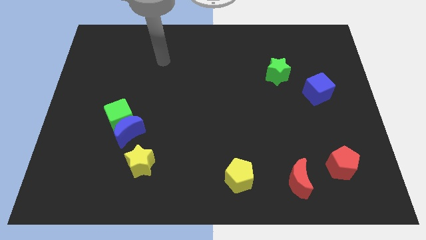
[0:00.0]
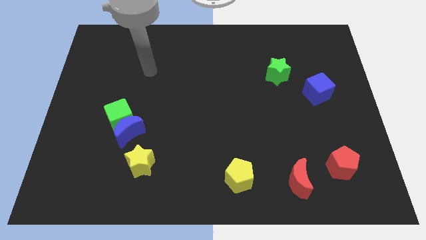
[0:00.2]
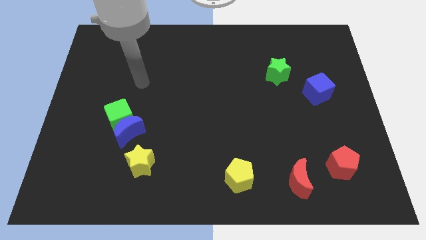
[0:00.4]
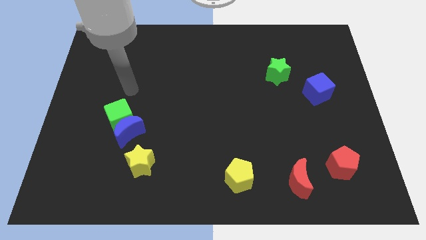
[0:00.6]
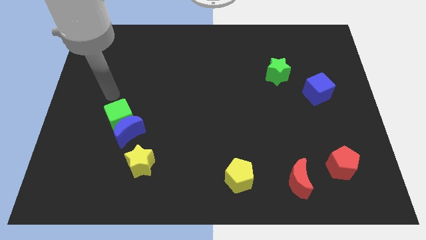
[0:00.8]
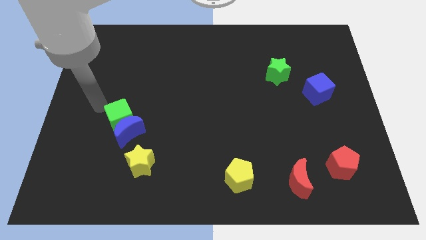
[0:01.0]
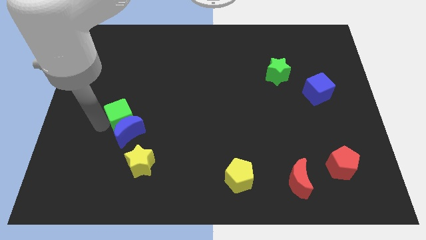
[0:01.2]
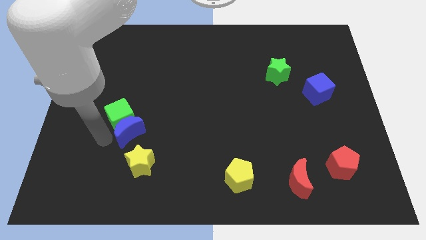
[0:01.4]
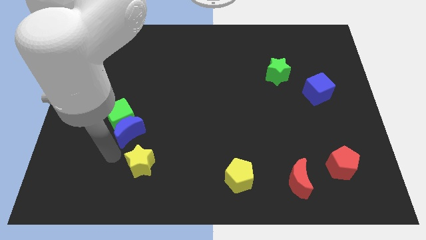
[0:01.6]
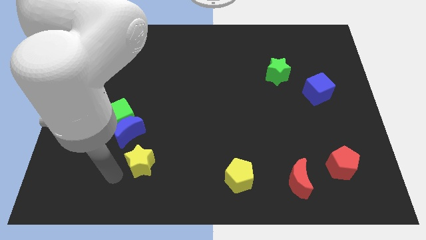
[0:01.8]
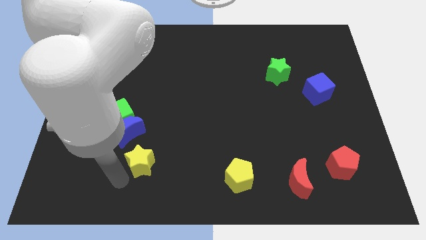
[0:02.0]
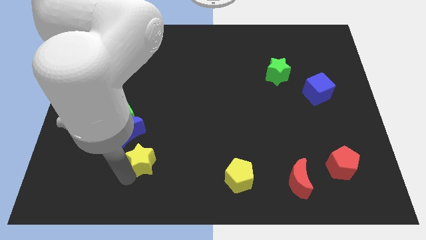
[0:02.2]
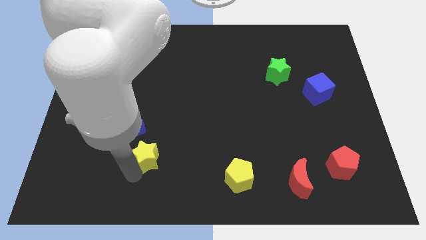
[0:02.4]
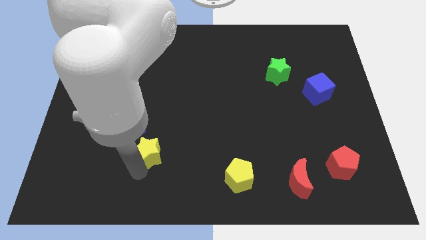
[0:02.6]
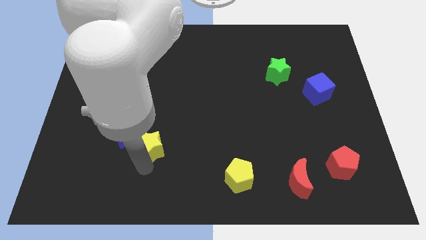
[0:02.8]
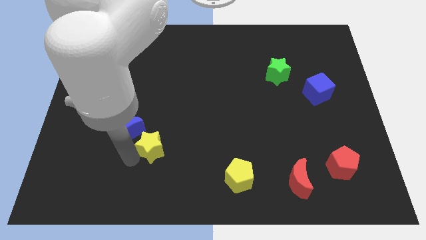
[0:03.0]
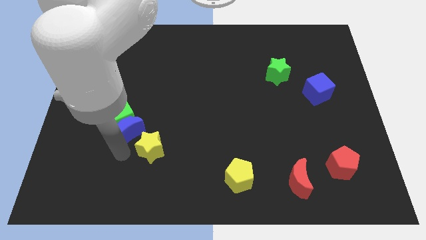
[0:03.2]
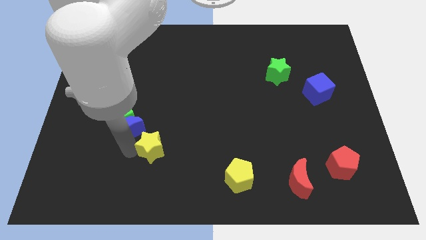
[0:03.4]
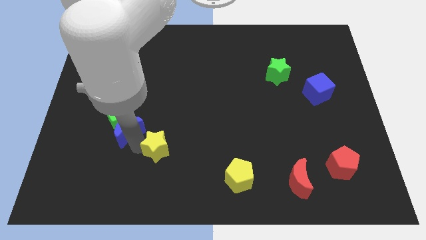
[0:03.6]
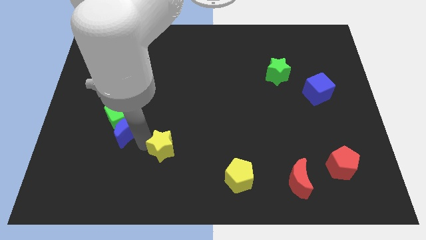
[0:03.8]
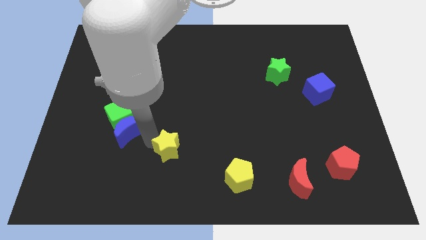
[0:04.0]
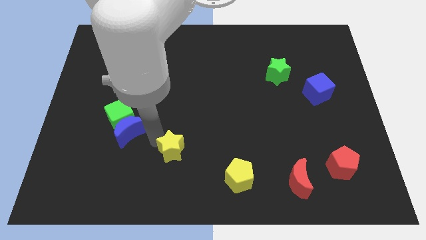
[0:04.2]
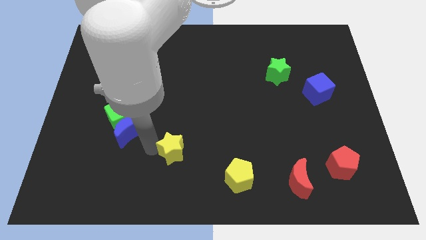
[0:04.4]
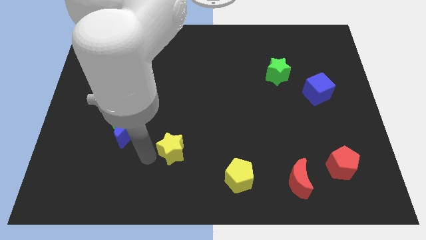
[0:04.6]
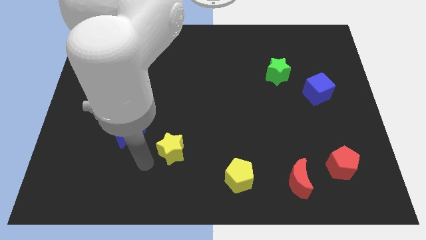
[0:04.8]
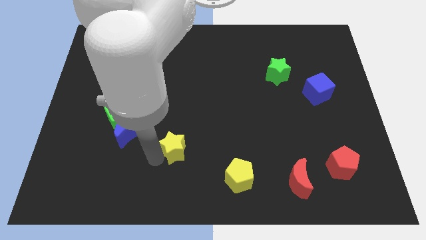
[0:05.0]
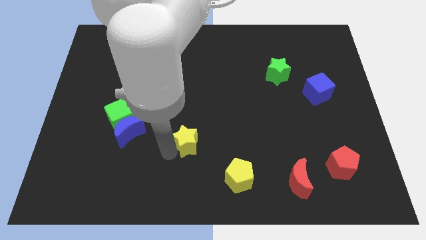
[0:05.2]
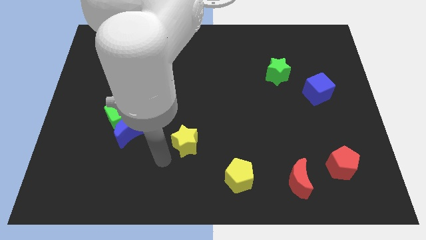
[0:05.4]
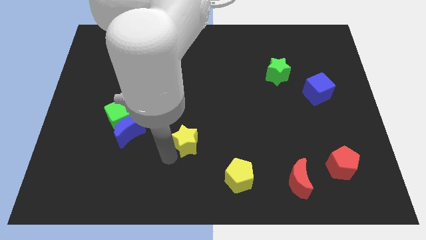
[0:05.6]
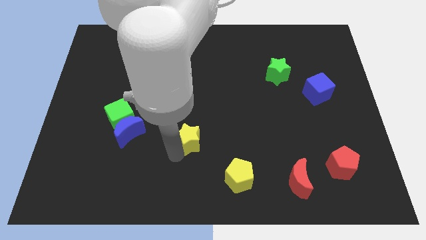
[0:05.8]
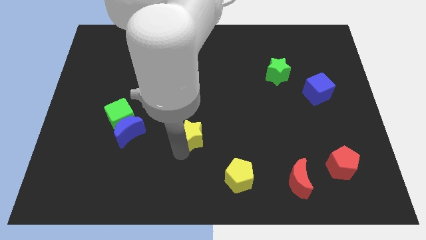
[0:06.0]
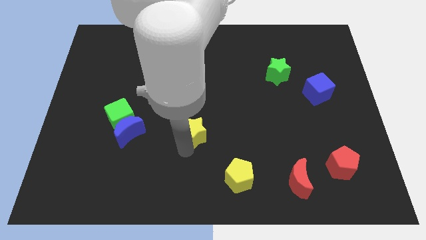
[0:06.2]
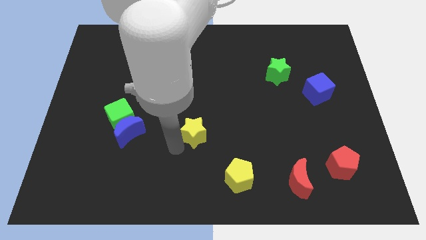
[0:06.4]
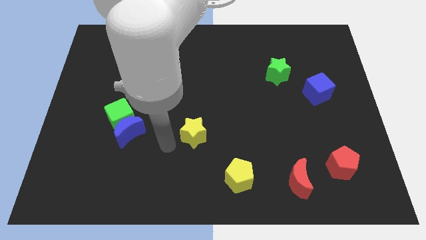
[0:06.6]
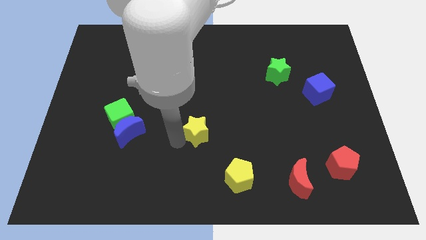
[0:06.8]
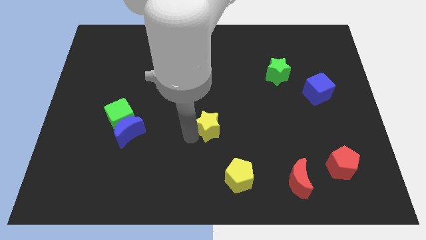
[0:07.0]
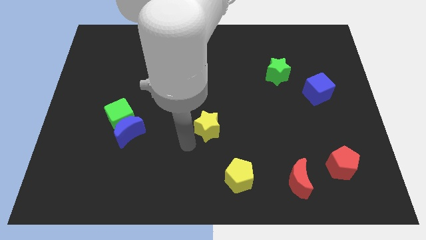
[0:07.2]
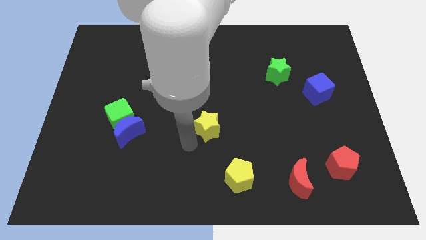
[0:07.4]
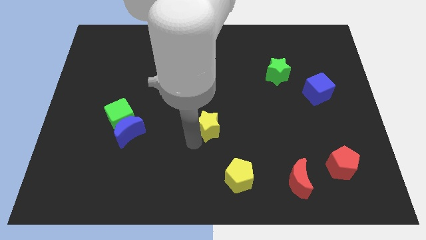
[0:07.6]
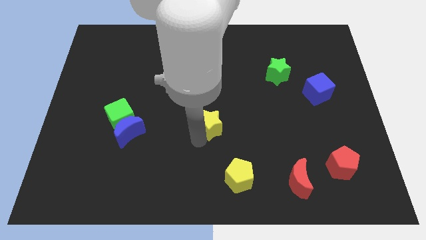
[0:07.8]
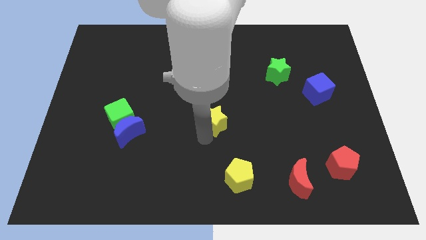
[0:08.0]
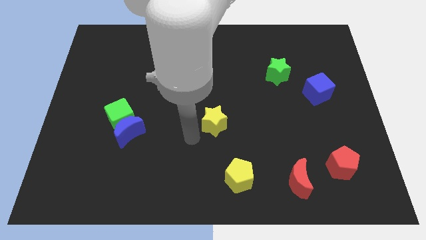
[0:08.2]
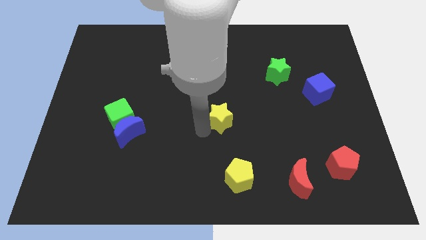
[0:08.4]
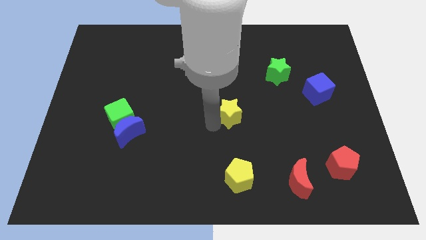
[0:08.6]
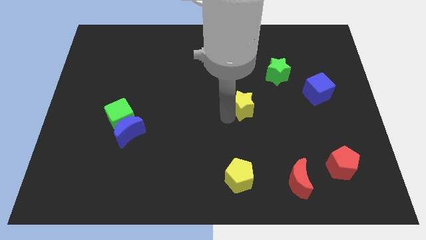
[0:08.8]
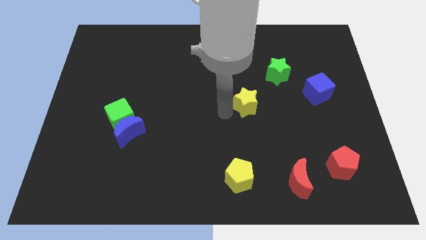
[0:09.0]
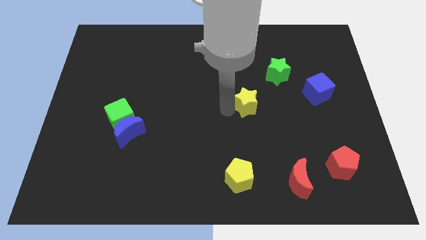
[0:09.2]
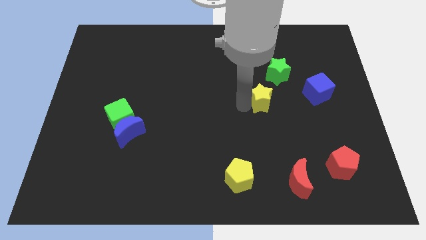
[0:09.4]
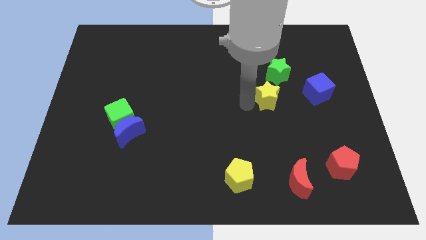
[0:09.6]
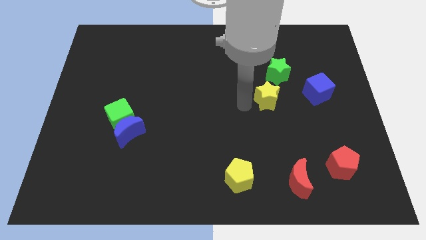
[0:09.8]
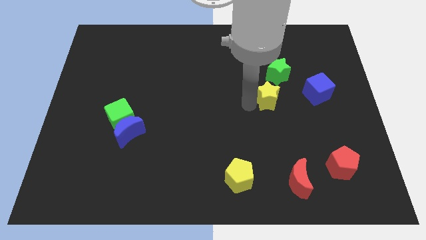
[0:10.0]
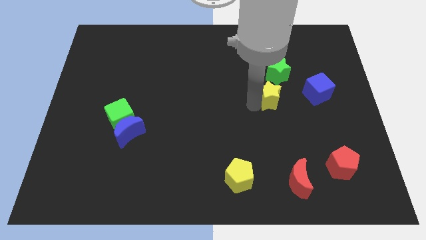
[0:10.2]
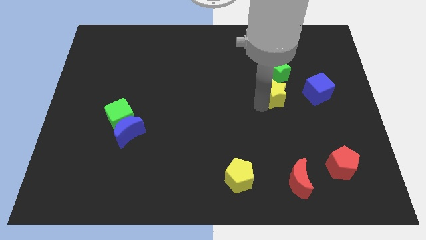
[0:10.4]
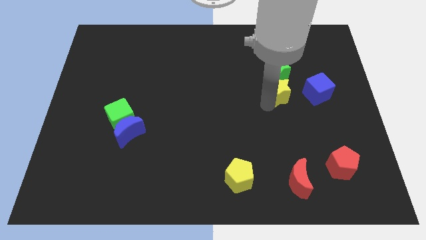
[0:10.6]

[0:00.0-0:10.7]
slide the yellow star to the bottom right of the green star

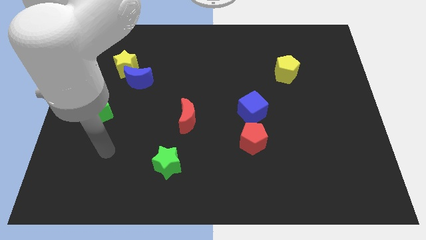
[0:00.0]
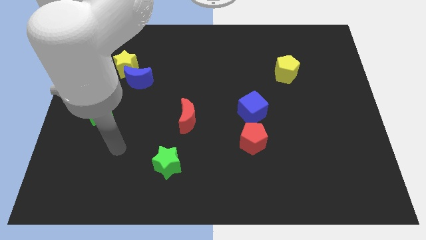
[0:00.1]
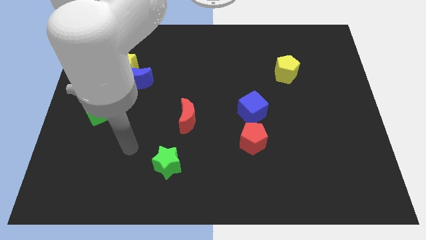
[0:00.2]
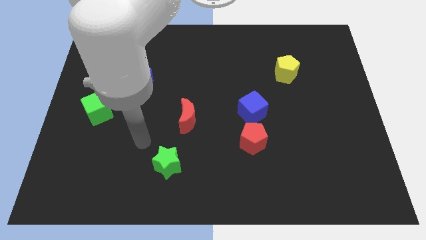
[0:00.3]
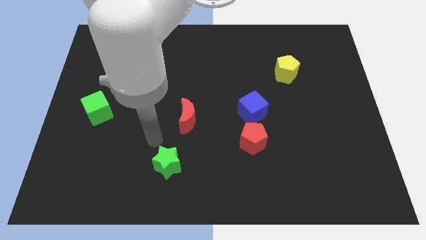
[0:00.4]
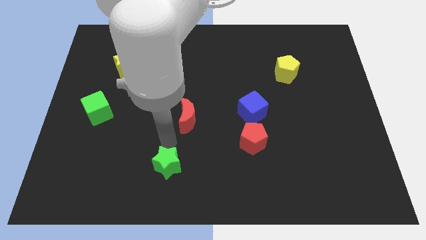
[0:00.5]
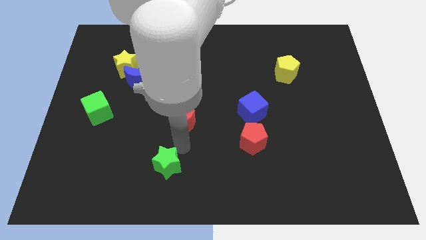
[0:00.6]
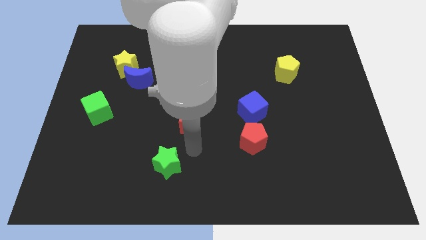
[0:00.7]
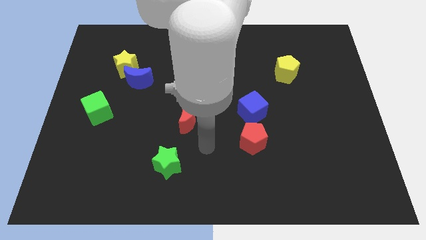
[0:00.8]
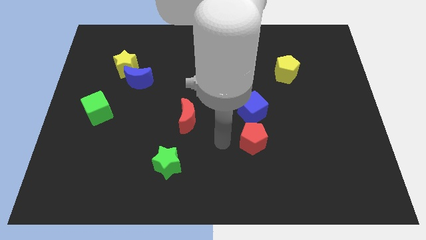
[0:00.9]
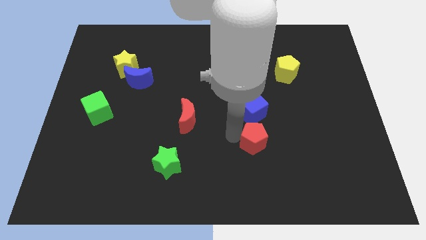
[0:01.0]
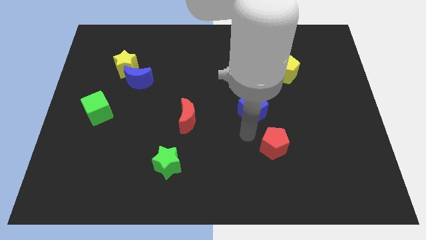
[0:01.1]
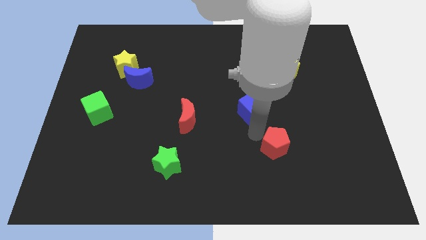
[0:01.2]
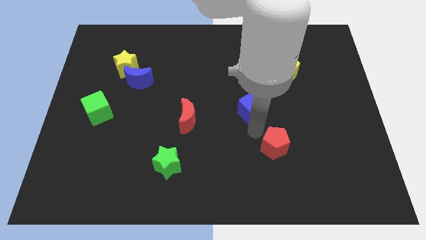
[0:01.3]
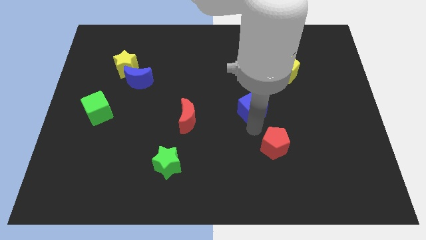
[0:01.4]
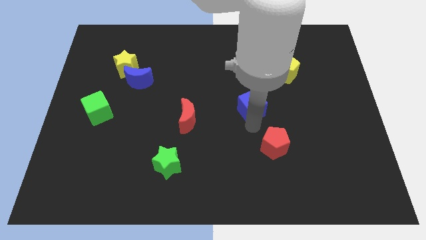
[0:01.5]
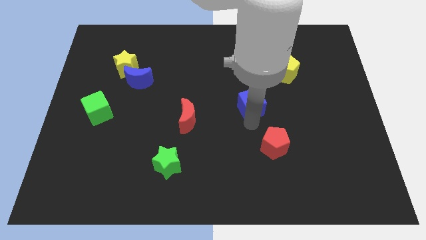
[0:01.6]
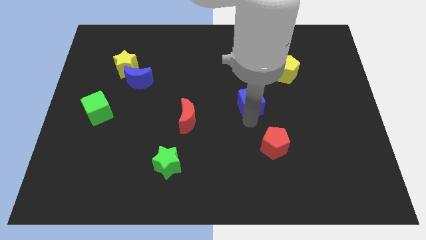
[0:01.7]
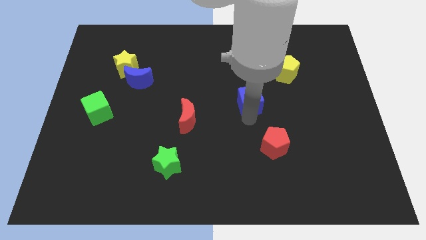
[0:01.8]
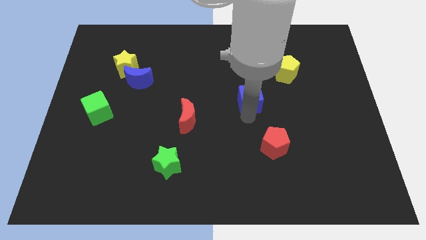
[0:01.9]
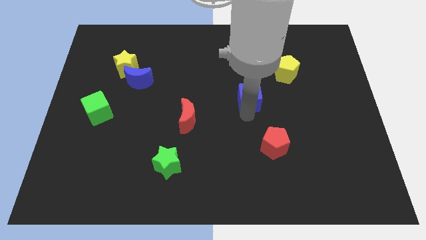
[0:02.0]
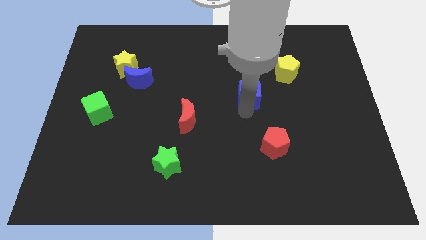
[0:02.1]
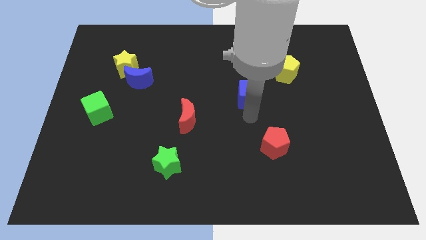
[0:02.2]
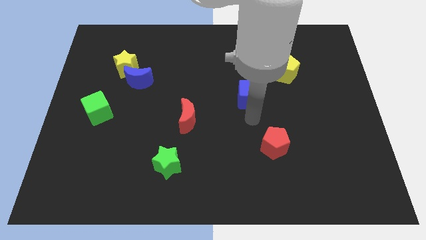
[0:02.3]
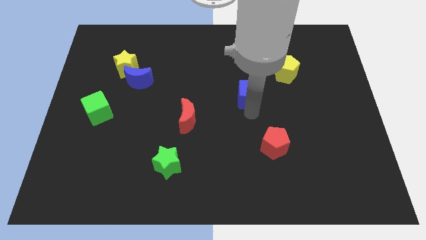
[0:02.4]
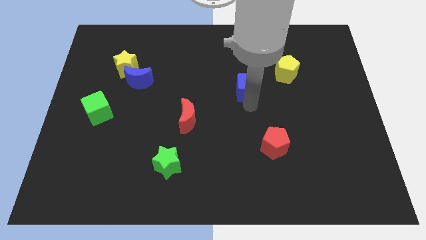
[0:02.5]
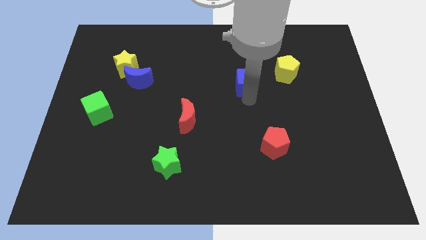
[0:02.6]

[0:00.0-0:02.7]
push the blue cube to the left side of the yellow pentagon
